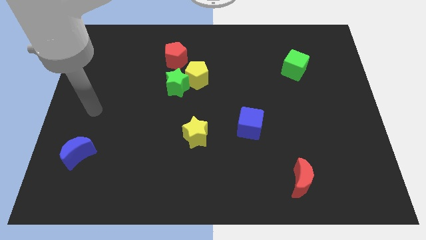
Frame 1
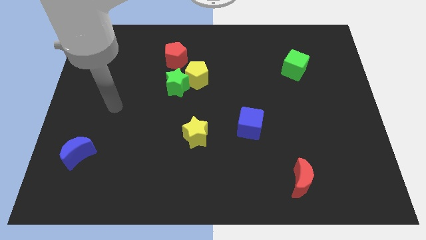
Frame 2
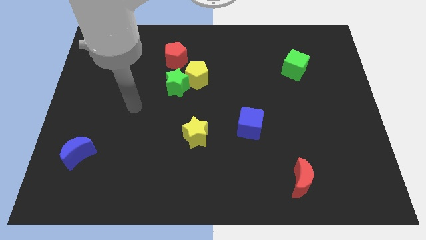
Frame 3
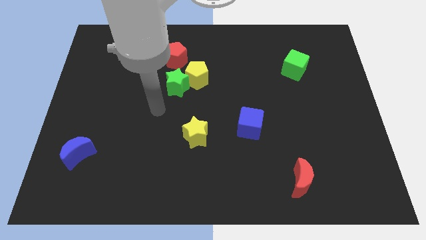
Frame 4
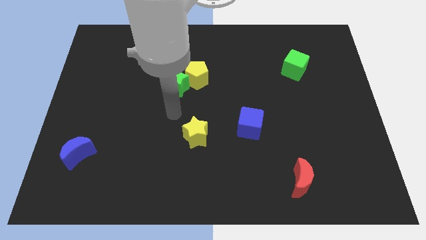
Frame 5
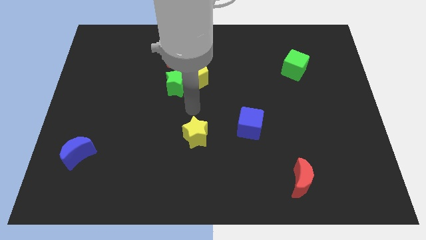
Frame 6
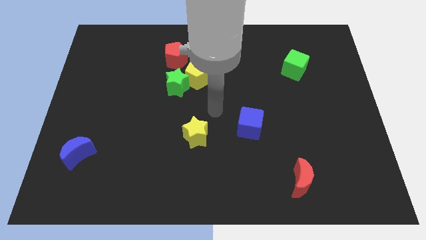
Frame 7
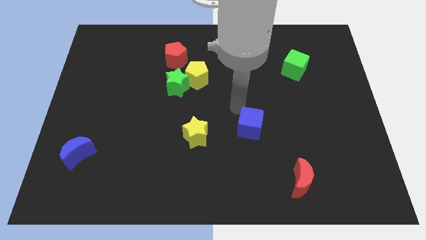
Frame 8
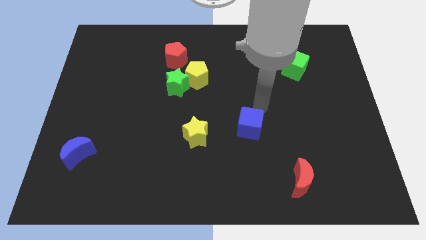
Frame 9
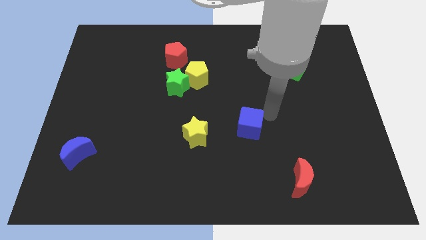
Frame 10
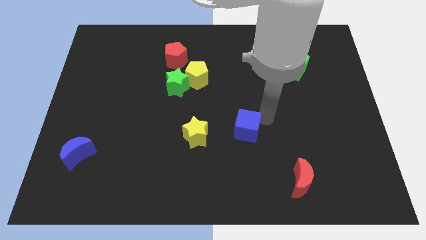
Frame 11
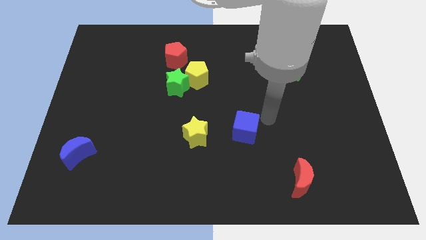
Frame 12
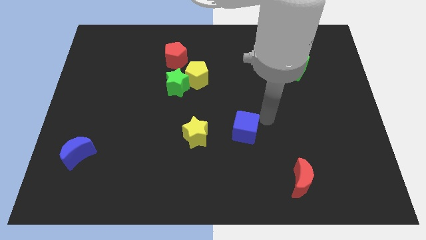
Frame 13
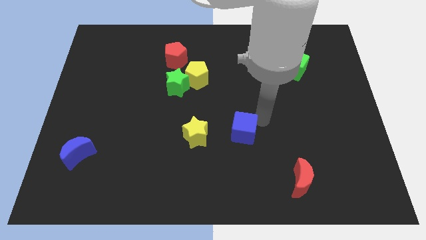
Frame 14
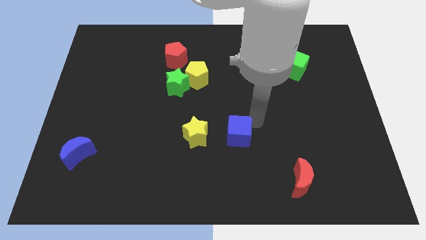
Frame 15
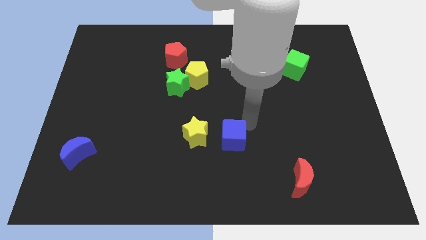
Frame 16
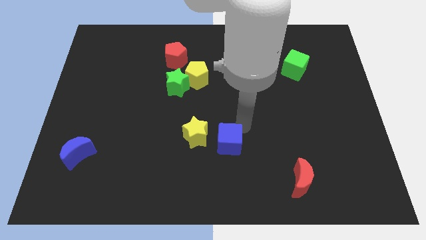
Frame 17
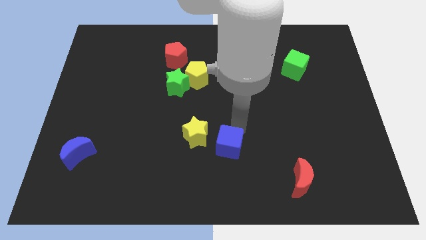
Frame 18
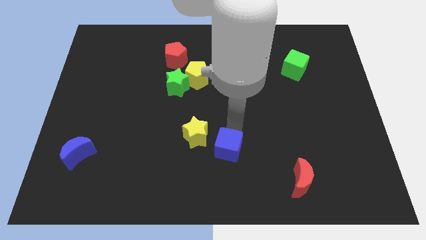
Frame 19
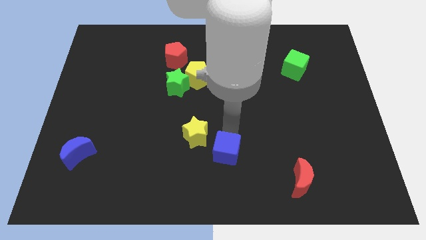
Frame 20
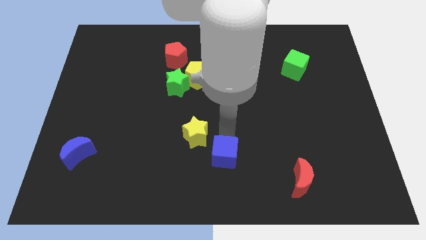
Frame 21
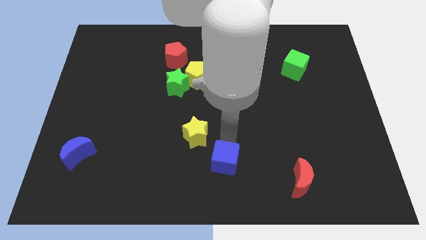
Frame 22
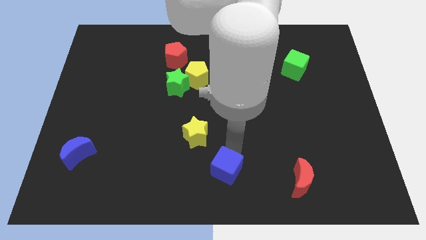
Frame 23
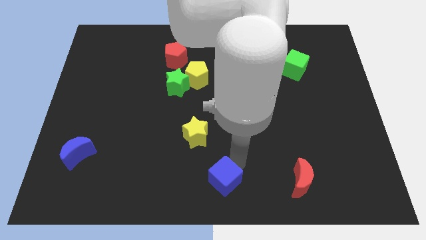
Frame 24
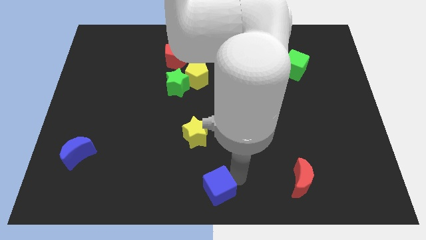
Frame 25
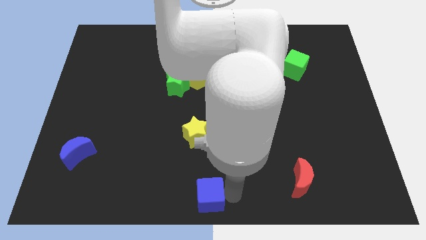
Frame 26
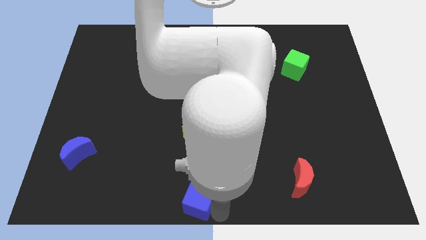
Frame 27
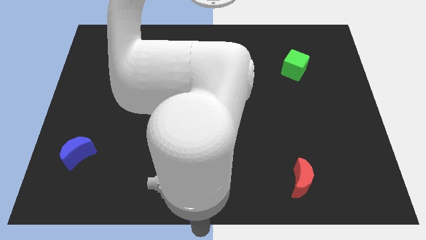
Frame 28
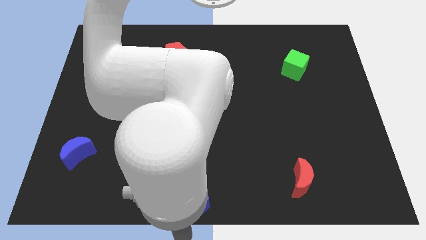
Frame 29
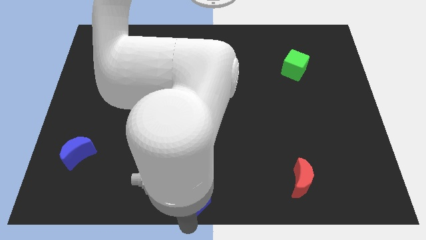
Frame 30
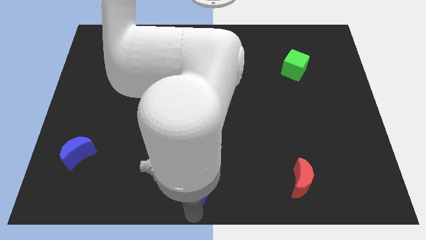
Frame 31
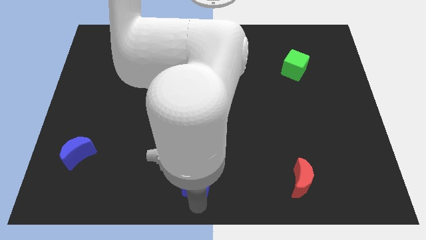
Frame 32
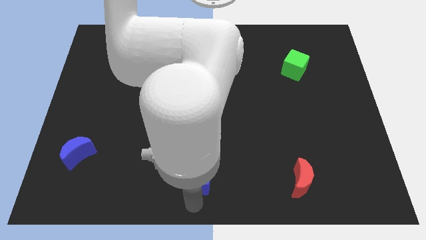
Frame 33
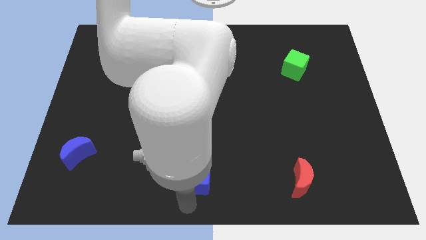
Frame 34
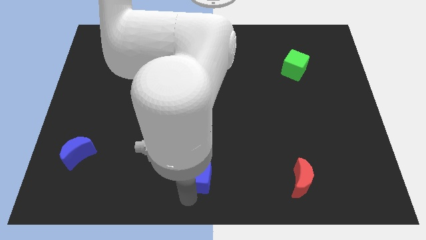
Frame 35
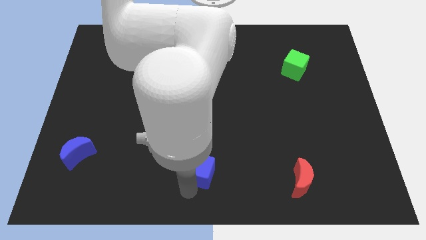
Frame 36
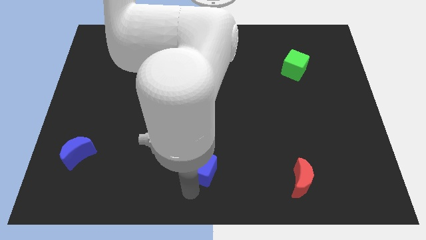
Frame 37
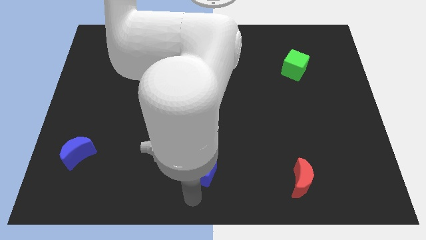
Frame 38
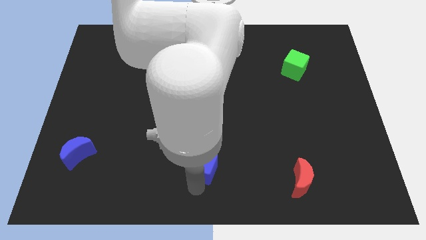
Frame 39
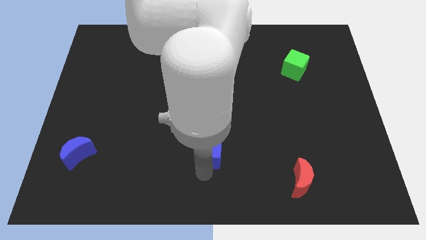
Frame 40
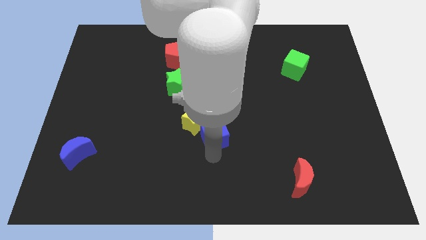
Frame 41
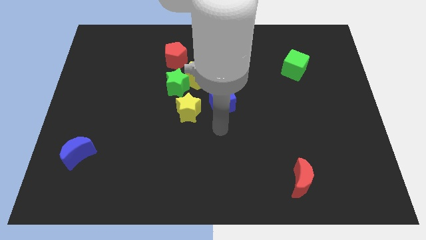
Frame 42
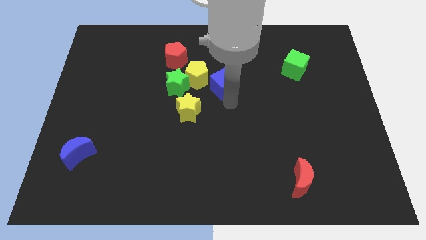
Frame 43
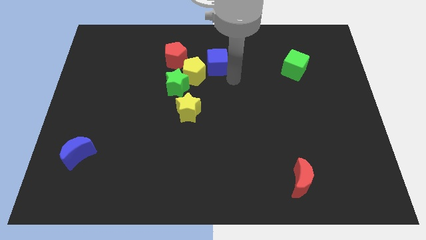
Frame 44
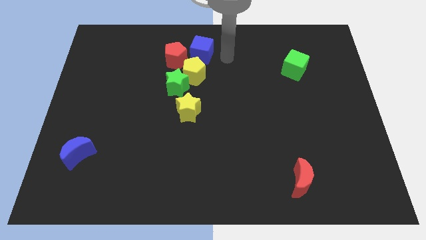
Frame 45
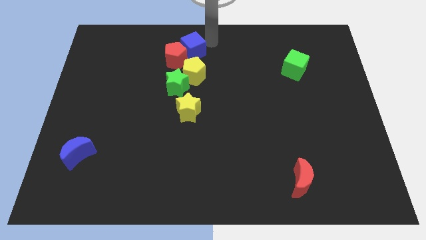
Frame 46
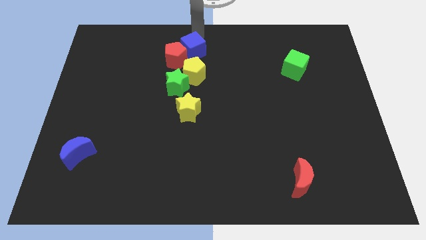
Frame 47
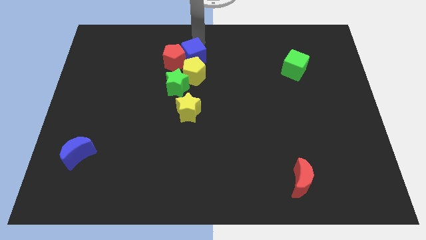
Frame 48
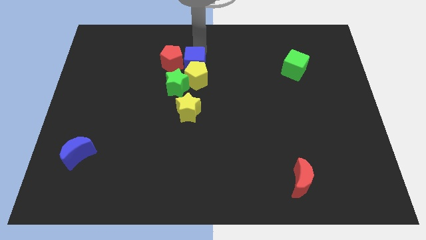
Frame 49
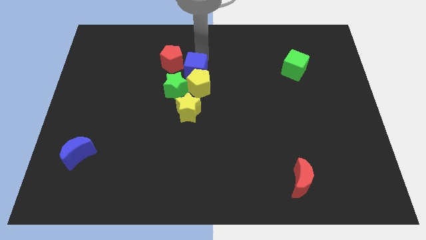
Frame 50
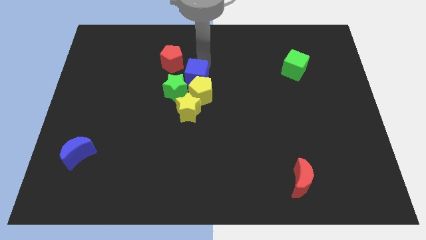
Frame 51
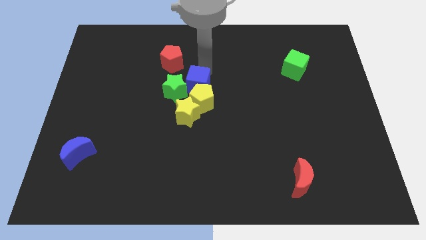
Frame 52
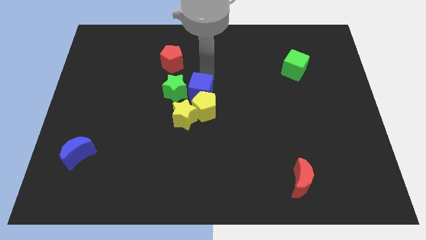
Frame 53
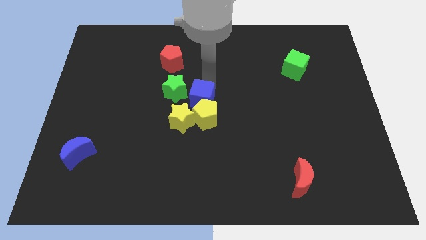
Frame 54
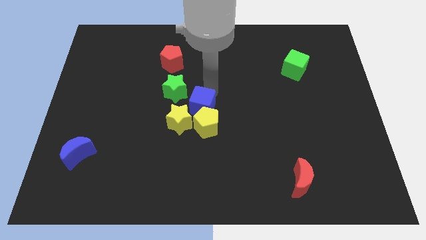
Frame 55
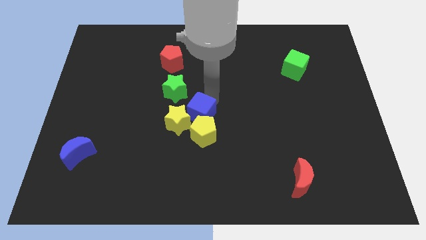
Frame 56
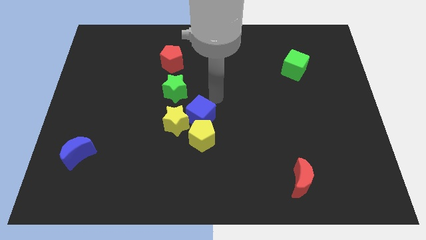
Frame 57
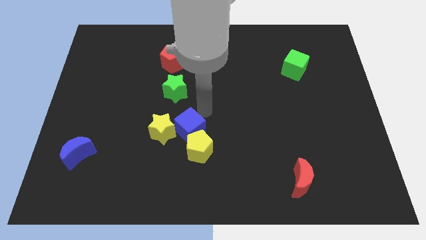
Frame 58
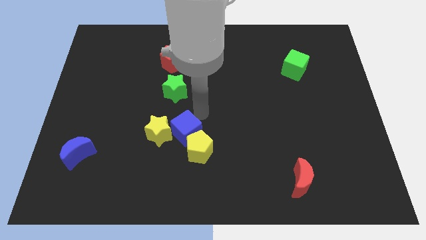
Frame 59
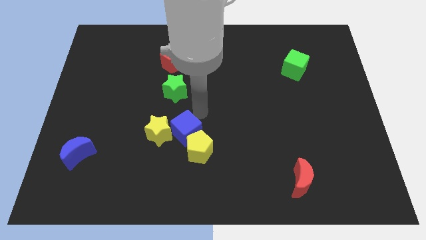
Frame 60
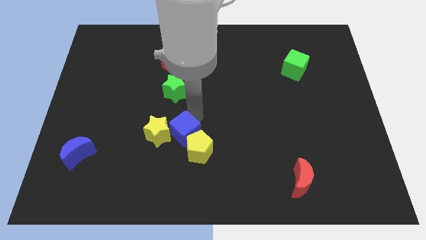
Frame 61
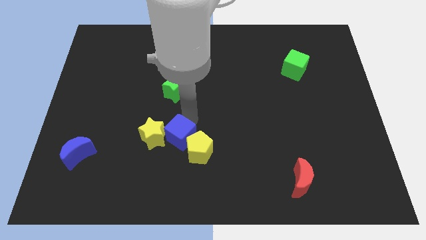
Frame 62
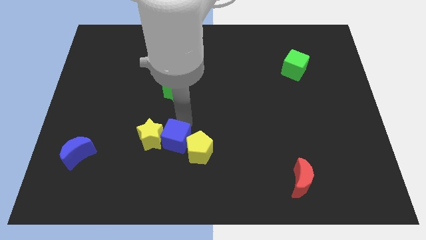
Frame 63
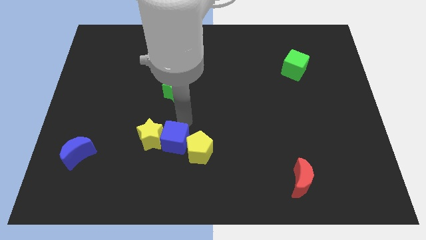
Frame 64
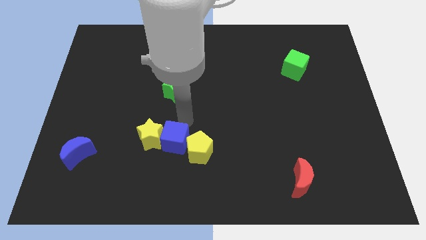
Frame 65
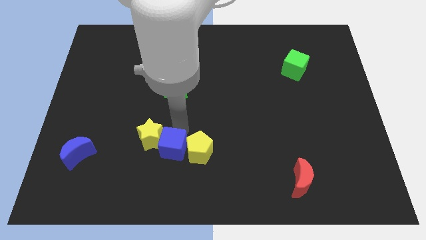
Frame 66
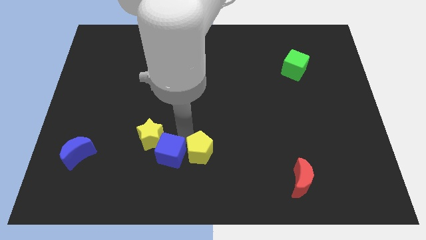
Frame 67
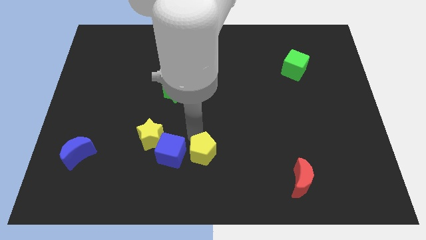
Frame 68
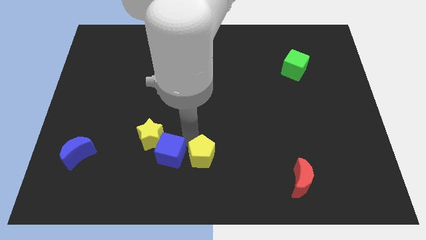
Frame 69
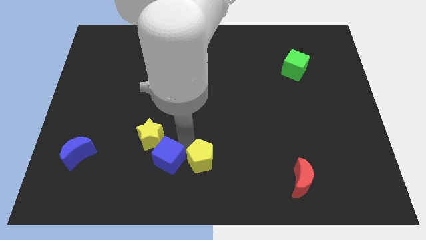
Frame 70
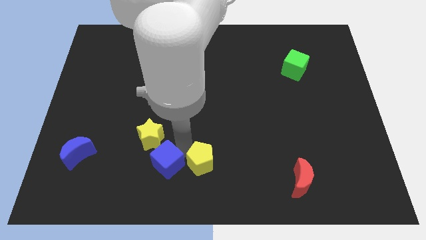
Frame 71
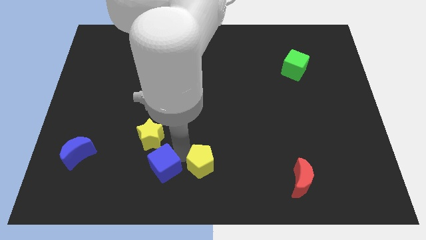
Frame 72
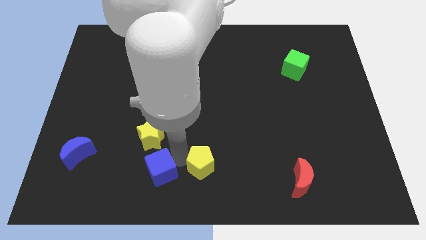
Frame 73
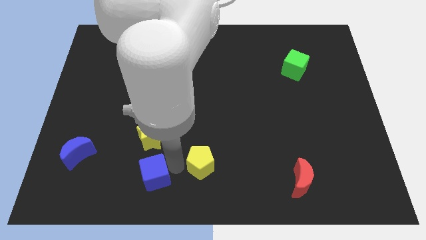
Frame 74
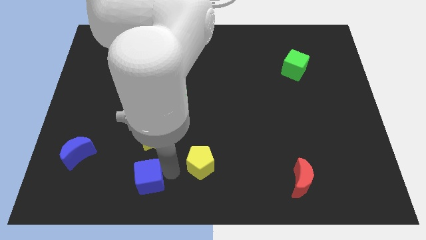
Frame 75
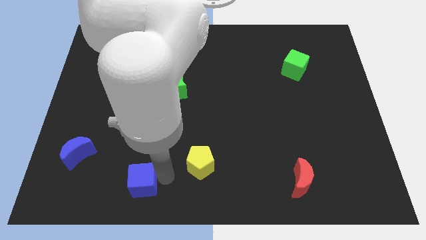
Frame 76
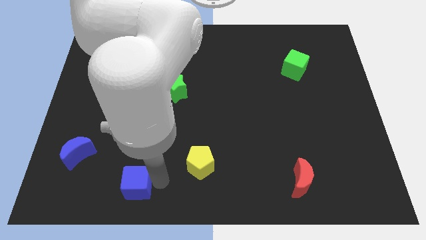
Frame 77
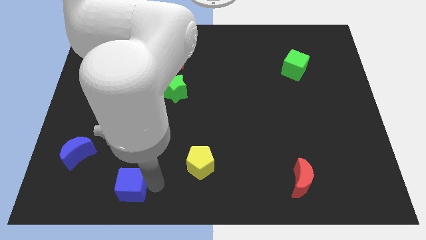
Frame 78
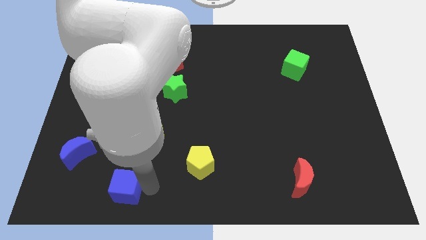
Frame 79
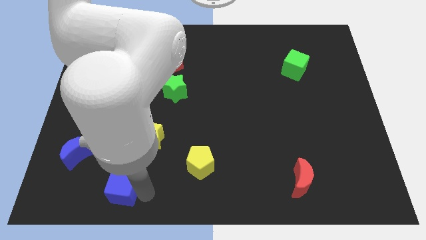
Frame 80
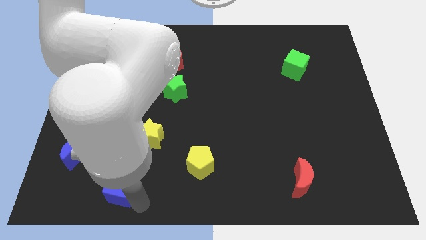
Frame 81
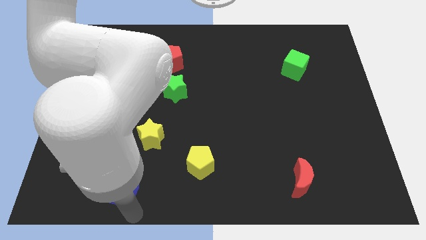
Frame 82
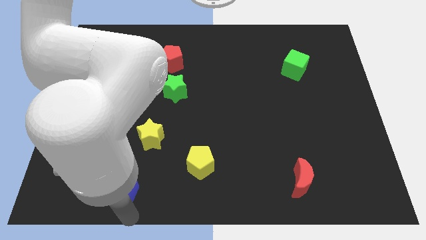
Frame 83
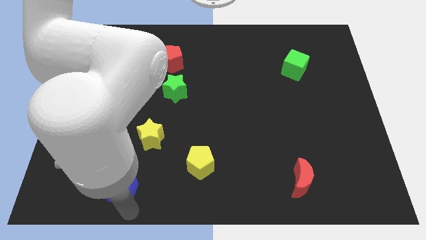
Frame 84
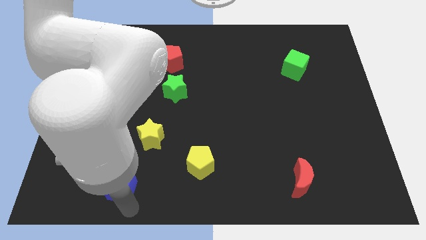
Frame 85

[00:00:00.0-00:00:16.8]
put the blue cube diagonally down and to the right of the blue moon
